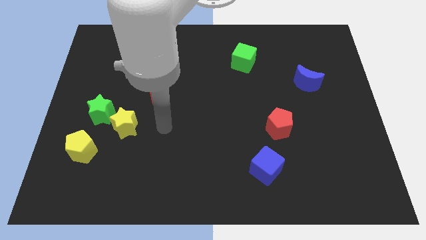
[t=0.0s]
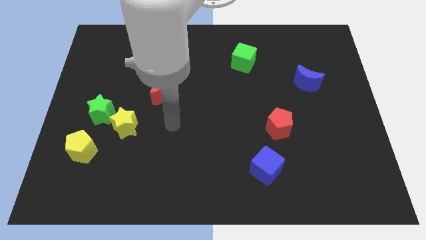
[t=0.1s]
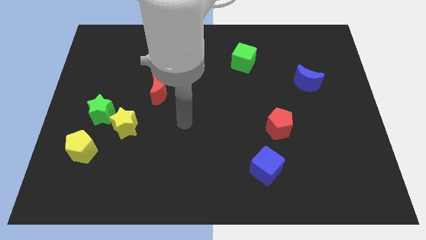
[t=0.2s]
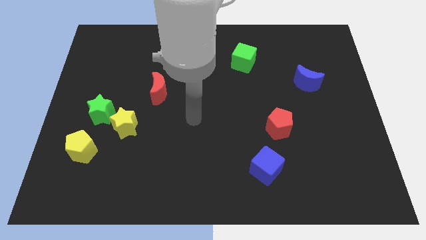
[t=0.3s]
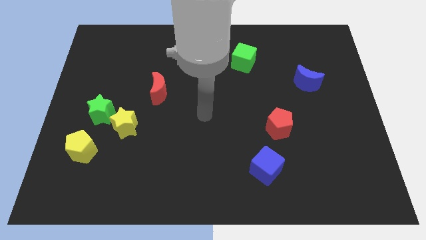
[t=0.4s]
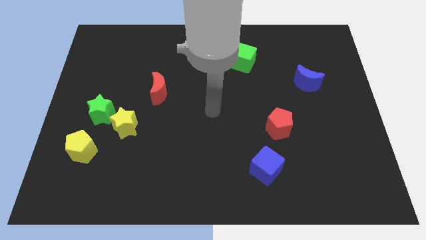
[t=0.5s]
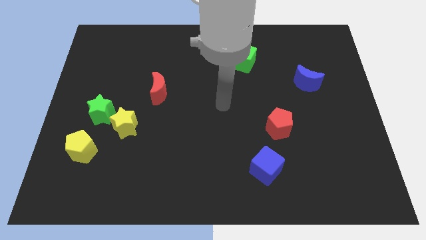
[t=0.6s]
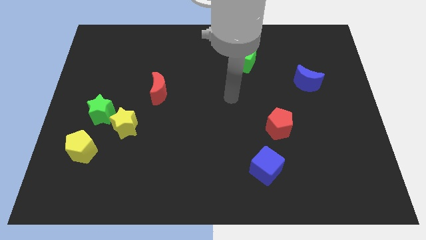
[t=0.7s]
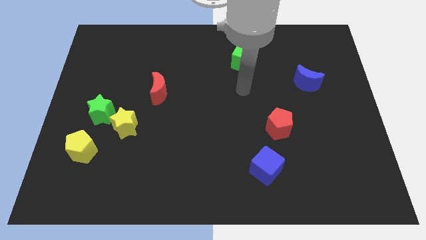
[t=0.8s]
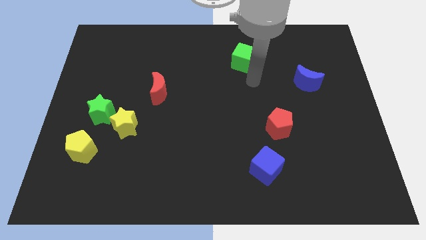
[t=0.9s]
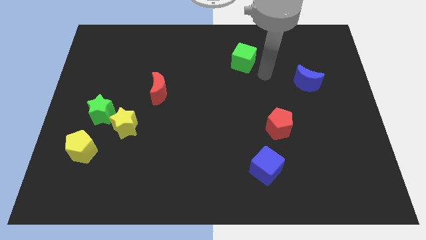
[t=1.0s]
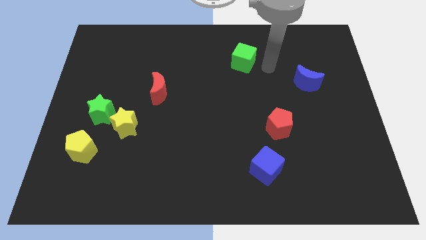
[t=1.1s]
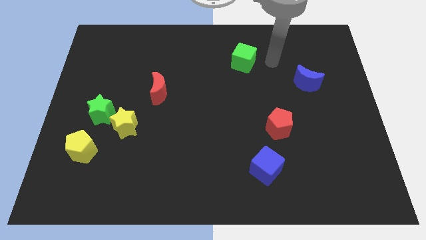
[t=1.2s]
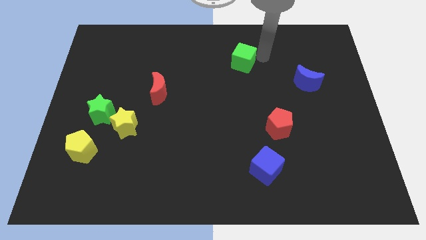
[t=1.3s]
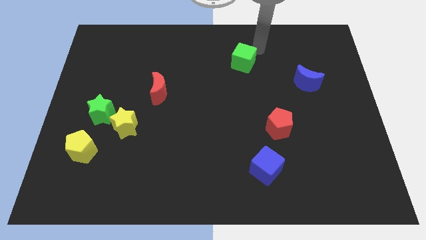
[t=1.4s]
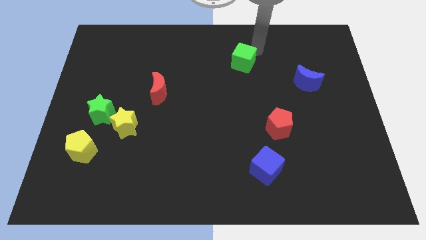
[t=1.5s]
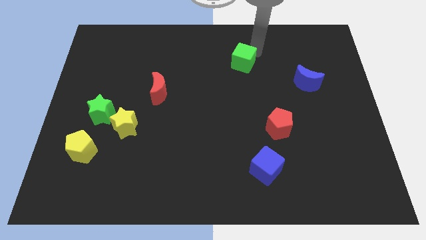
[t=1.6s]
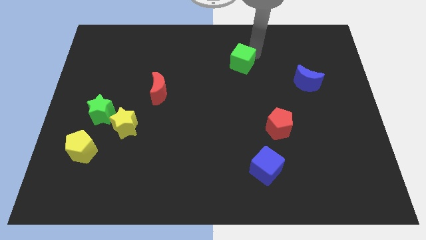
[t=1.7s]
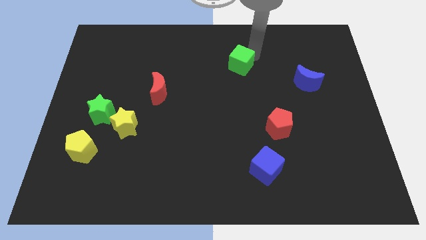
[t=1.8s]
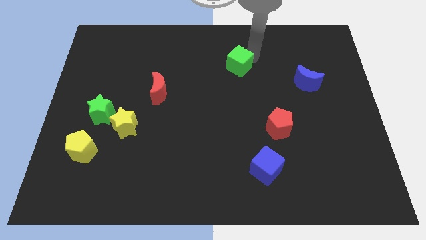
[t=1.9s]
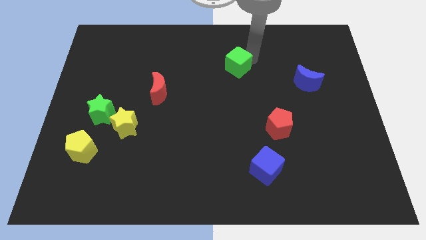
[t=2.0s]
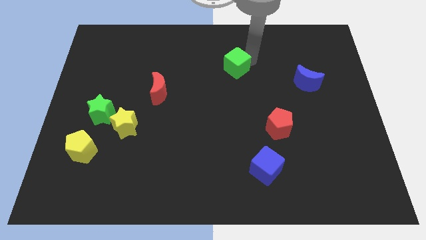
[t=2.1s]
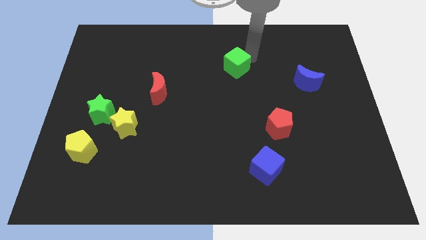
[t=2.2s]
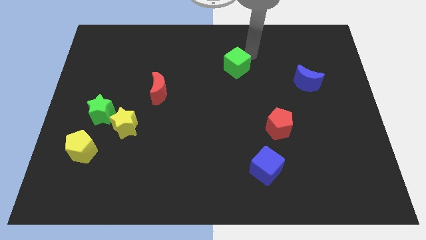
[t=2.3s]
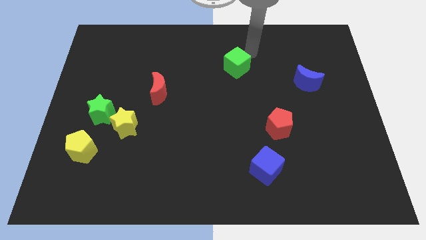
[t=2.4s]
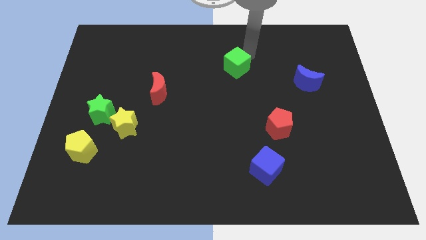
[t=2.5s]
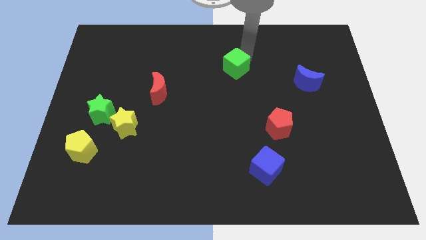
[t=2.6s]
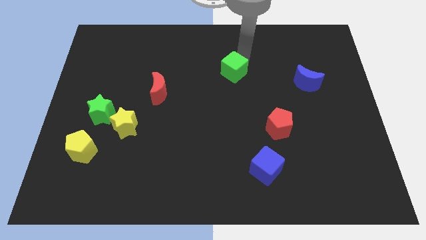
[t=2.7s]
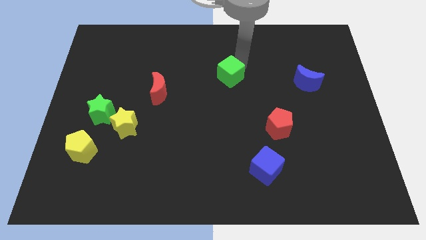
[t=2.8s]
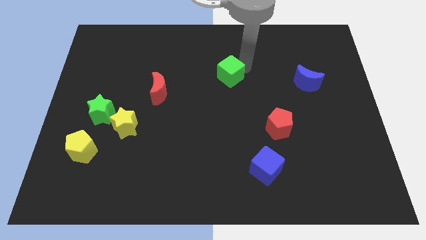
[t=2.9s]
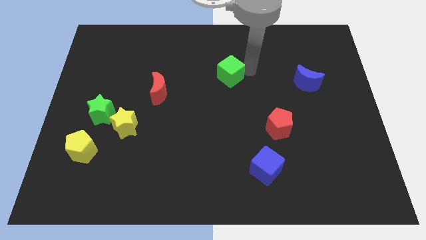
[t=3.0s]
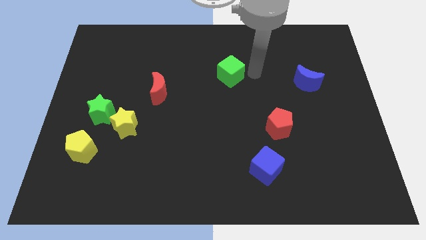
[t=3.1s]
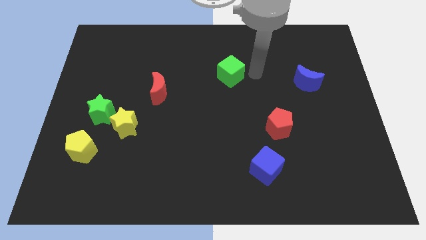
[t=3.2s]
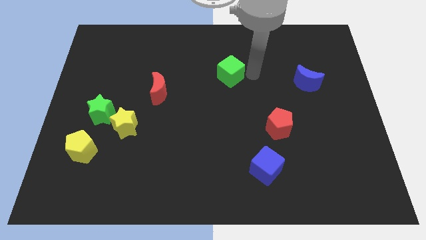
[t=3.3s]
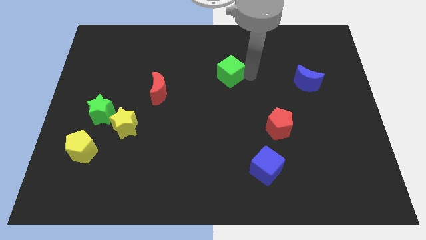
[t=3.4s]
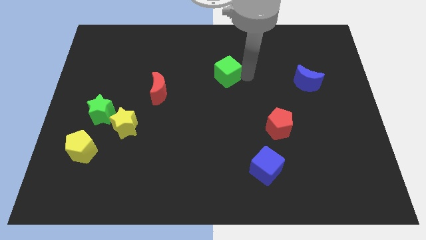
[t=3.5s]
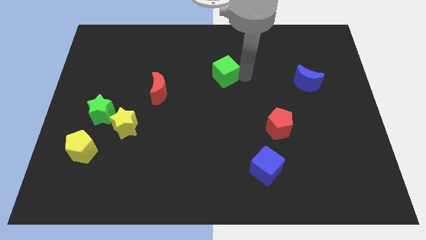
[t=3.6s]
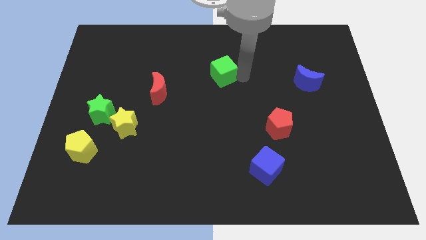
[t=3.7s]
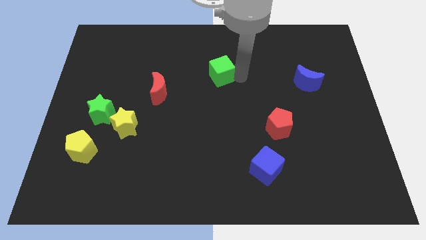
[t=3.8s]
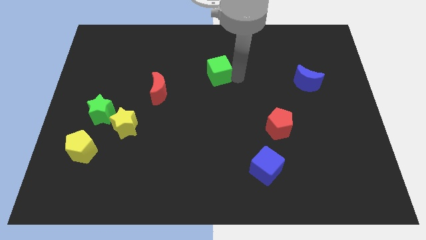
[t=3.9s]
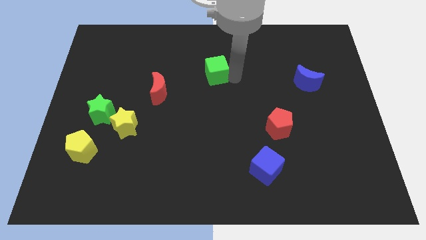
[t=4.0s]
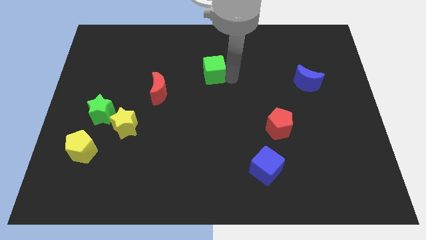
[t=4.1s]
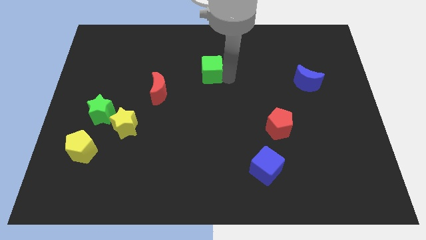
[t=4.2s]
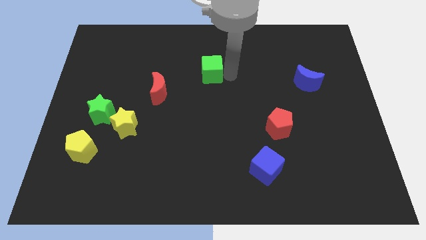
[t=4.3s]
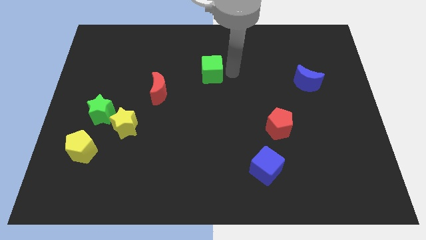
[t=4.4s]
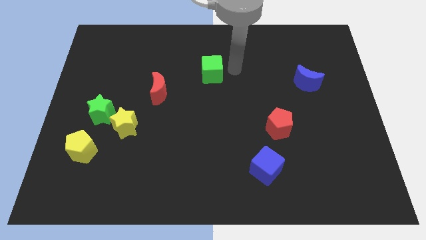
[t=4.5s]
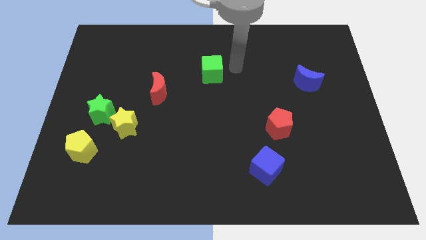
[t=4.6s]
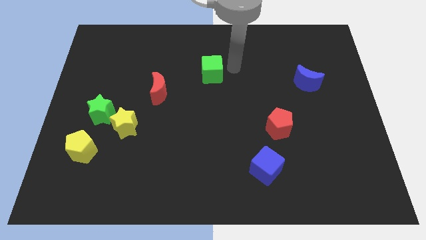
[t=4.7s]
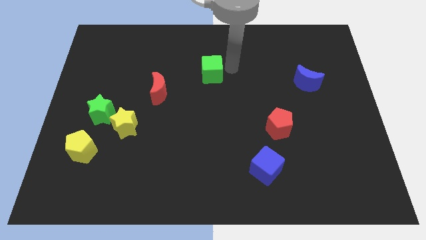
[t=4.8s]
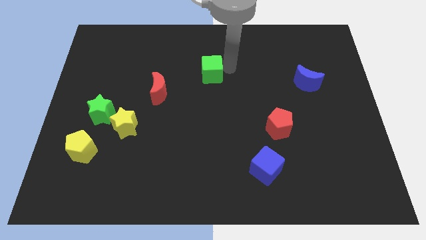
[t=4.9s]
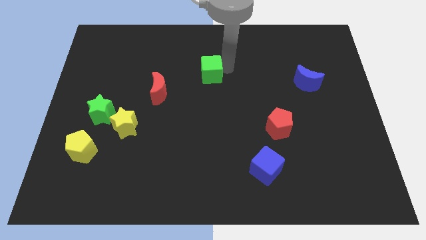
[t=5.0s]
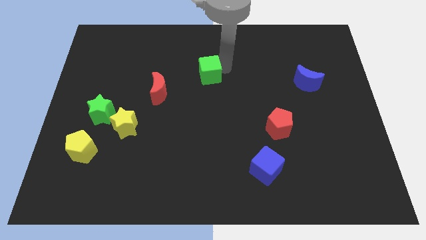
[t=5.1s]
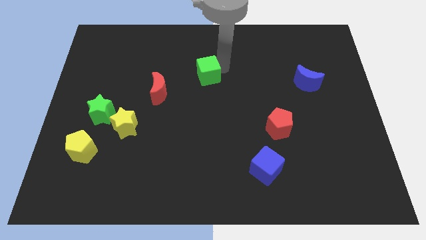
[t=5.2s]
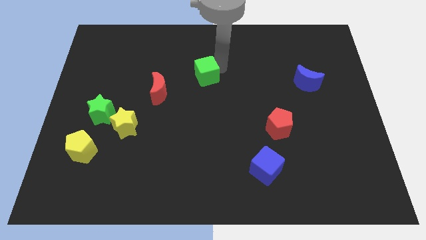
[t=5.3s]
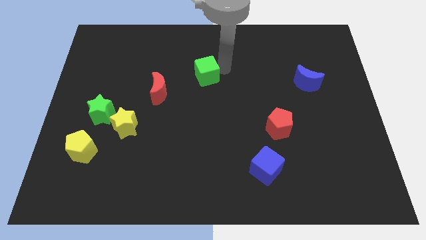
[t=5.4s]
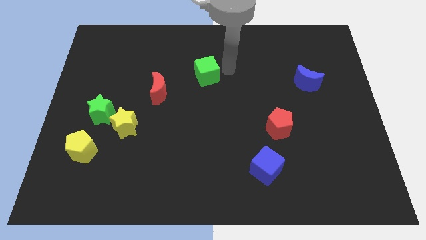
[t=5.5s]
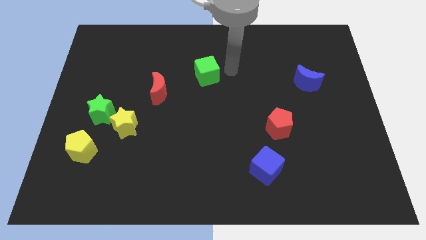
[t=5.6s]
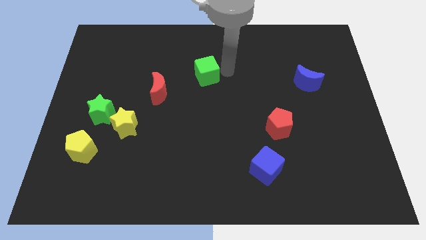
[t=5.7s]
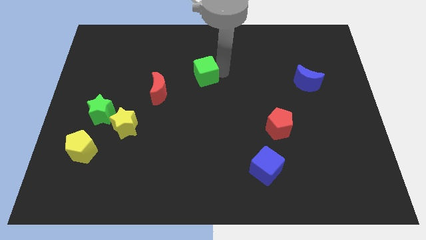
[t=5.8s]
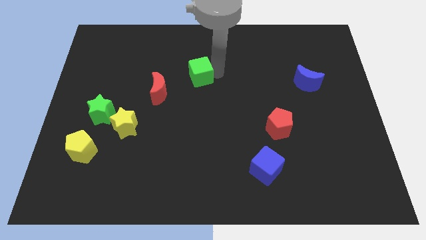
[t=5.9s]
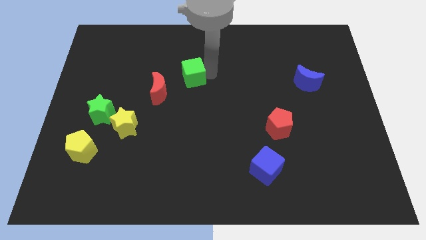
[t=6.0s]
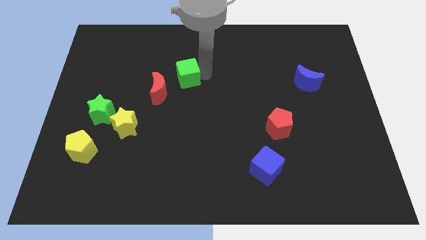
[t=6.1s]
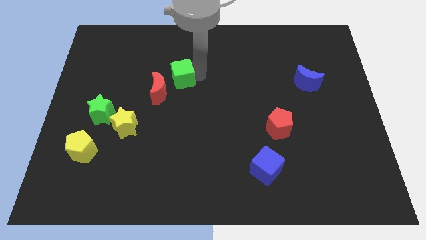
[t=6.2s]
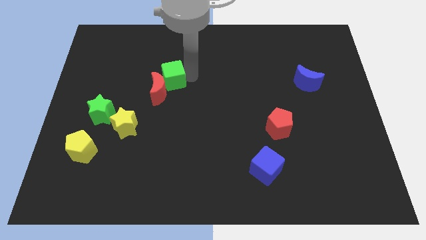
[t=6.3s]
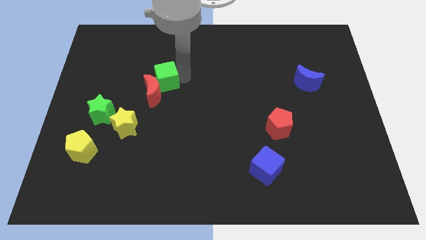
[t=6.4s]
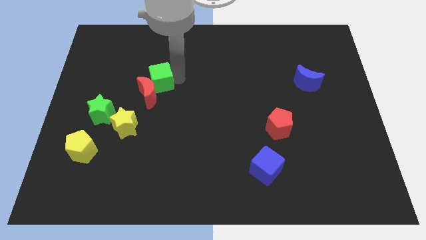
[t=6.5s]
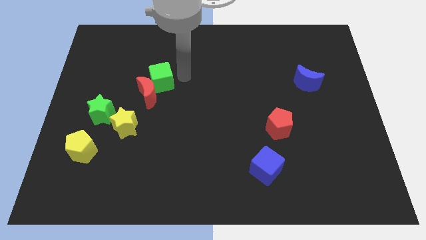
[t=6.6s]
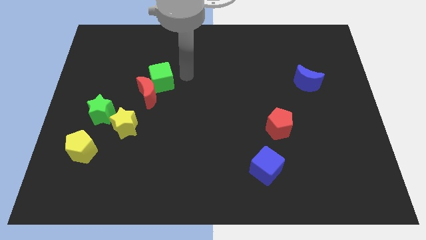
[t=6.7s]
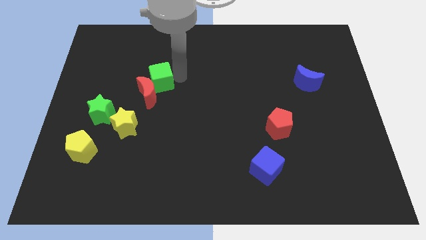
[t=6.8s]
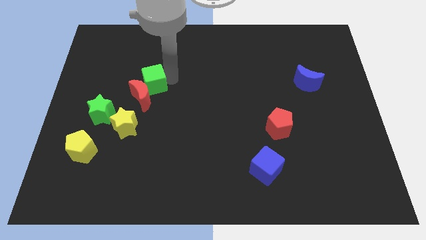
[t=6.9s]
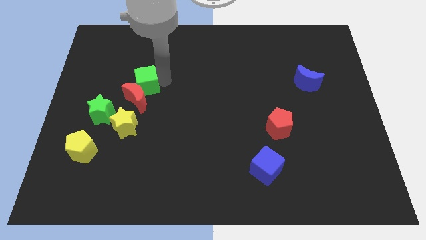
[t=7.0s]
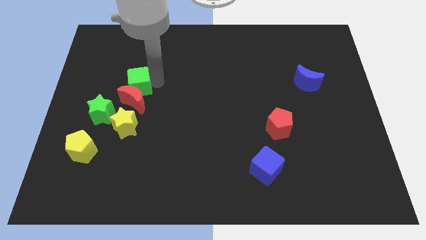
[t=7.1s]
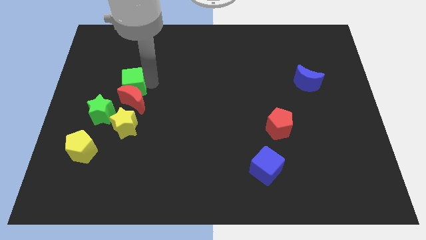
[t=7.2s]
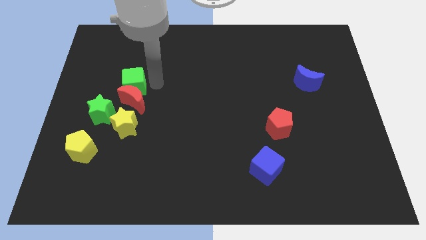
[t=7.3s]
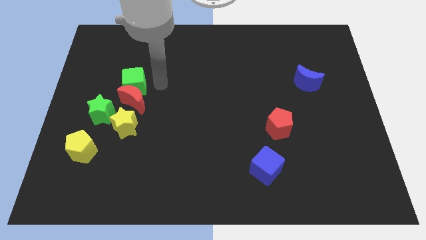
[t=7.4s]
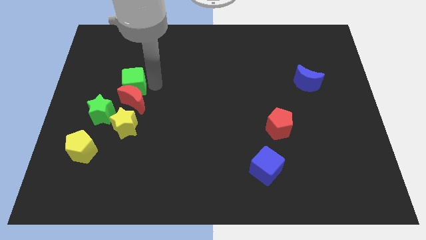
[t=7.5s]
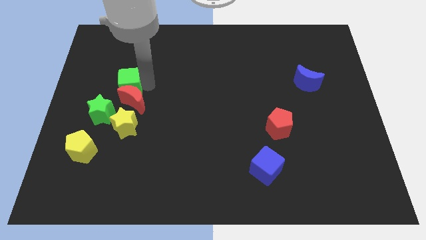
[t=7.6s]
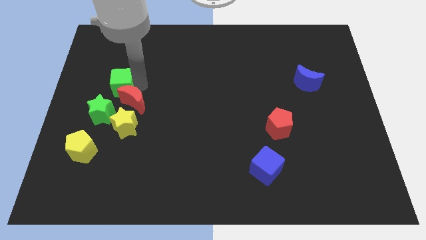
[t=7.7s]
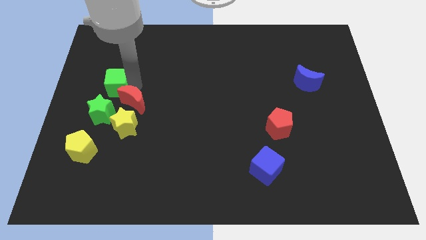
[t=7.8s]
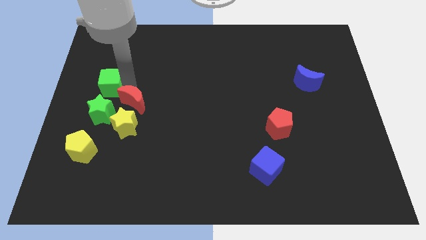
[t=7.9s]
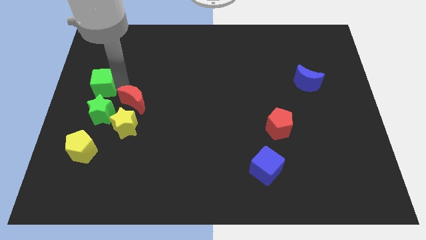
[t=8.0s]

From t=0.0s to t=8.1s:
put the green cube to the left side of the board
